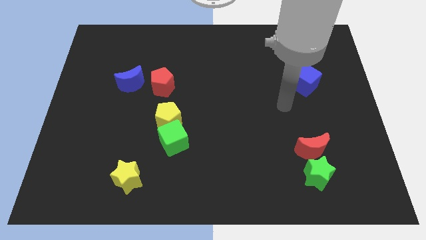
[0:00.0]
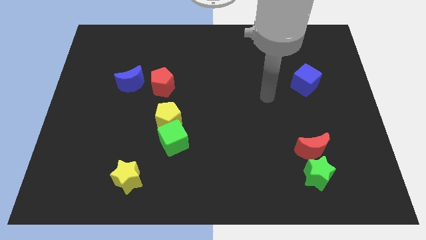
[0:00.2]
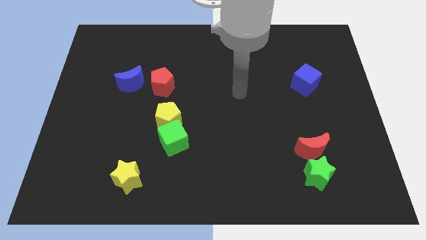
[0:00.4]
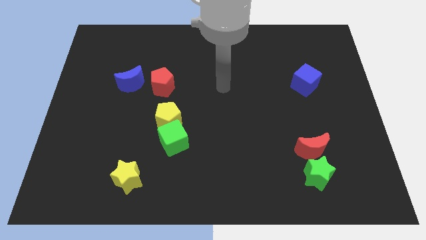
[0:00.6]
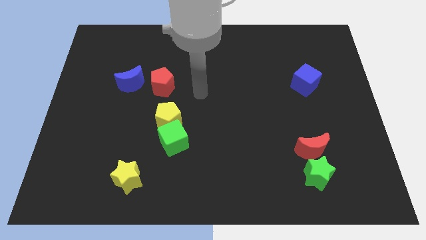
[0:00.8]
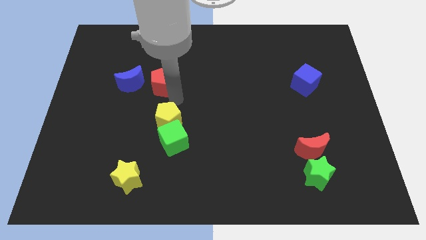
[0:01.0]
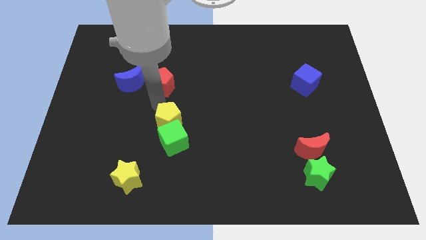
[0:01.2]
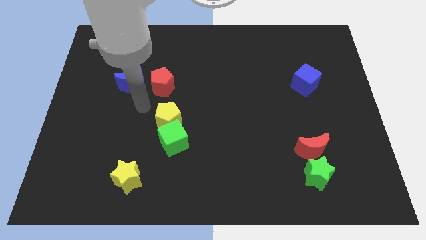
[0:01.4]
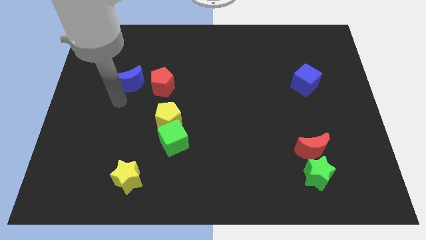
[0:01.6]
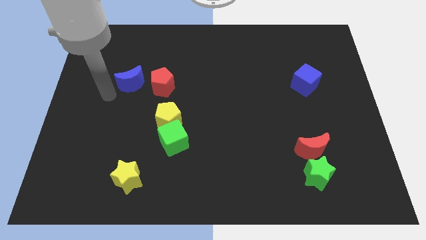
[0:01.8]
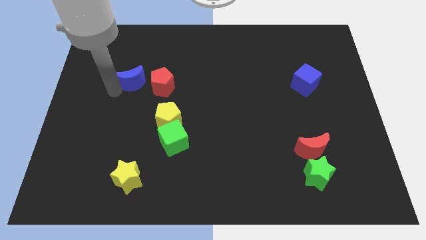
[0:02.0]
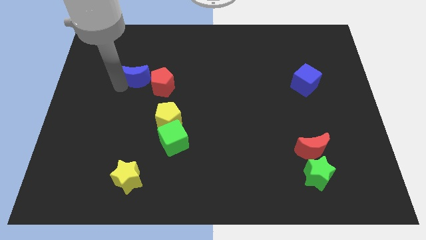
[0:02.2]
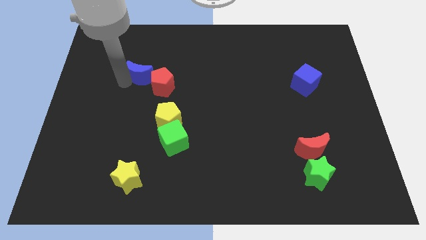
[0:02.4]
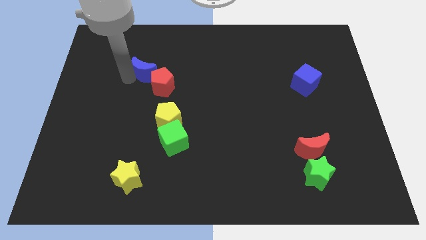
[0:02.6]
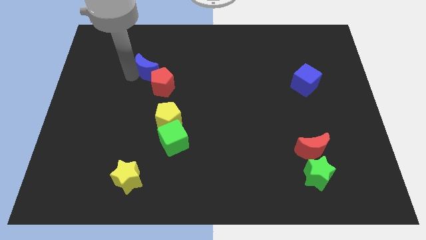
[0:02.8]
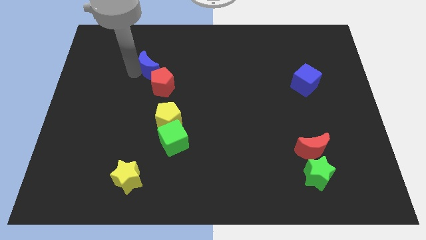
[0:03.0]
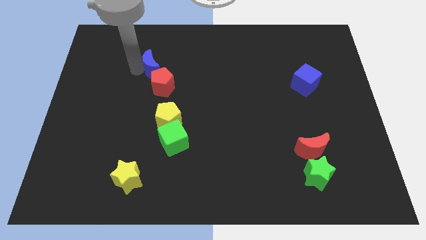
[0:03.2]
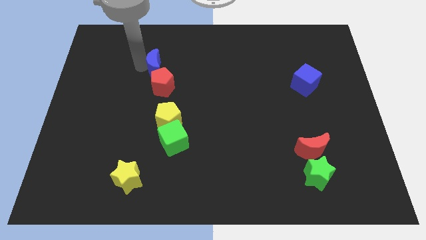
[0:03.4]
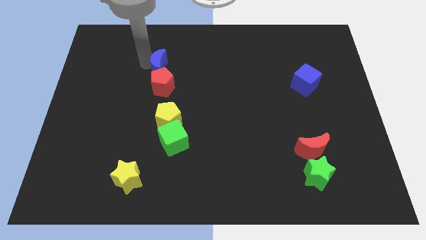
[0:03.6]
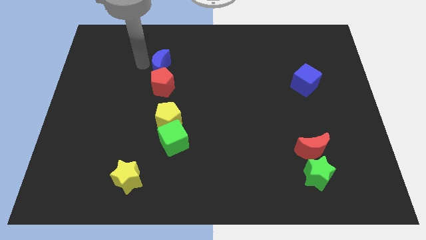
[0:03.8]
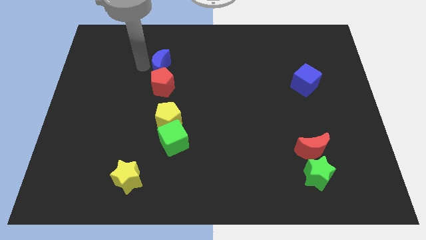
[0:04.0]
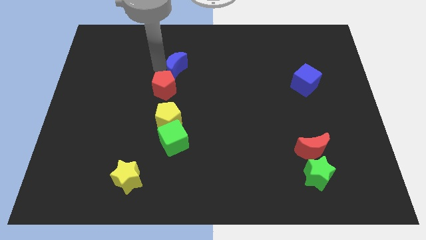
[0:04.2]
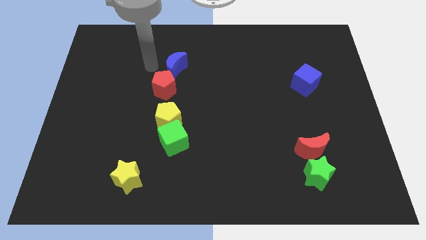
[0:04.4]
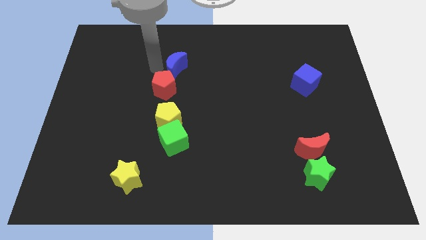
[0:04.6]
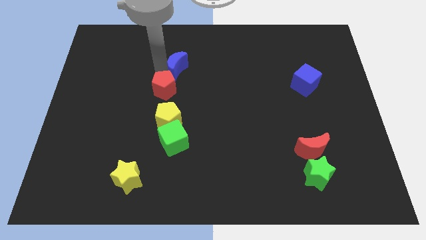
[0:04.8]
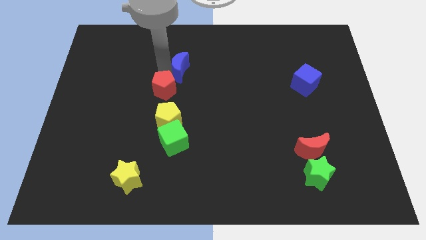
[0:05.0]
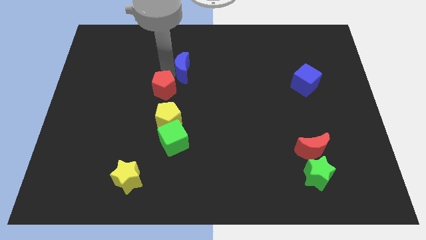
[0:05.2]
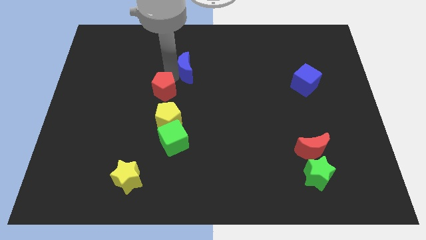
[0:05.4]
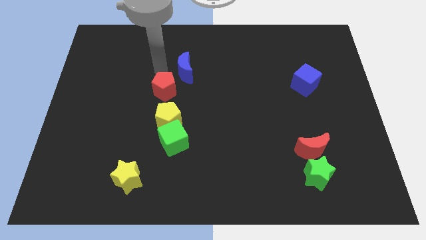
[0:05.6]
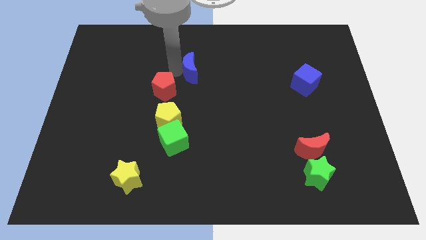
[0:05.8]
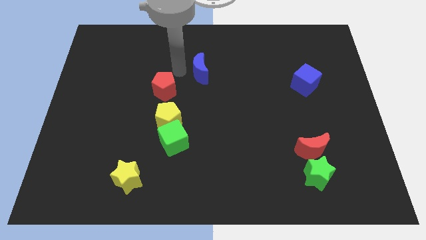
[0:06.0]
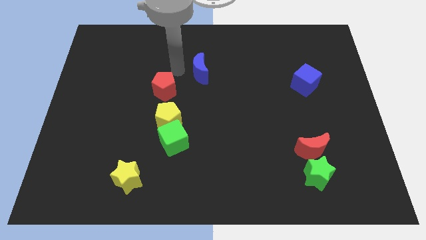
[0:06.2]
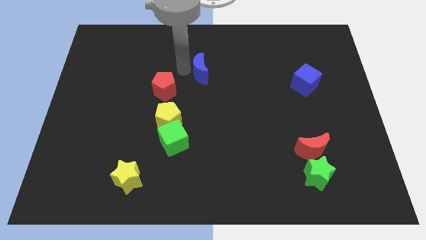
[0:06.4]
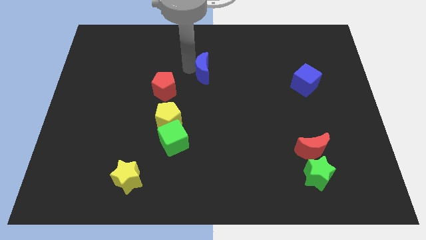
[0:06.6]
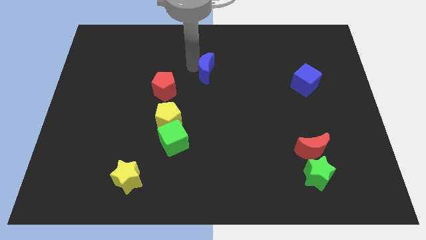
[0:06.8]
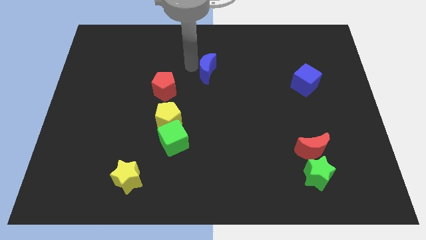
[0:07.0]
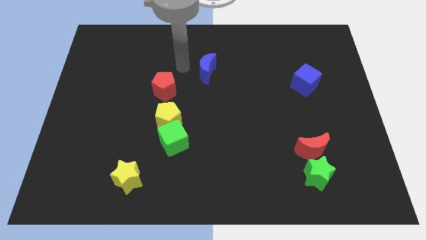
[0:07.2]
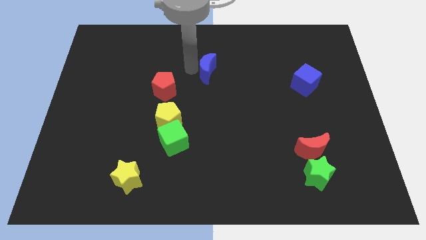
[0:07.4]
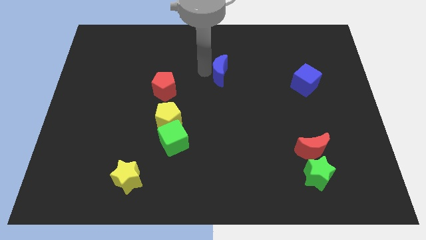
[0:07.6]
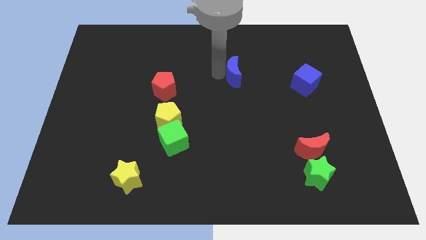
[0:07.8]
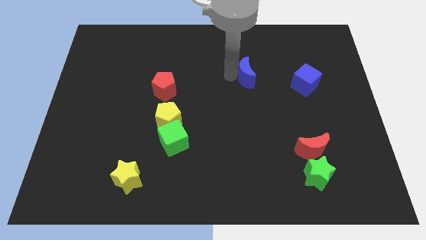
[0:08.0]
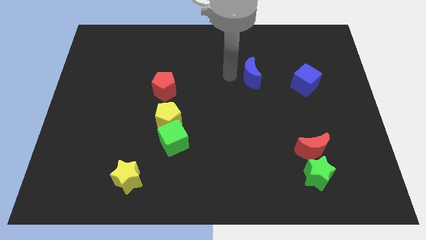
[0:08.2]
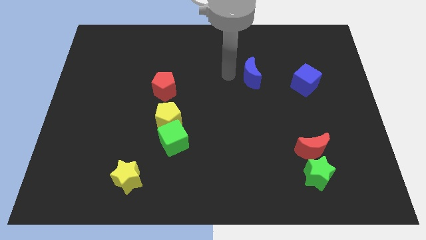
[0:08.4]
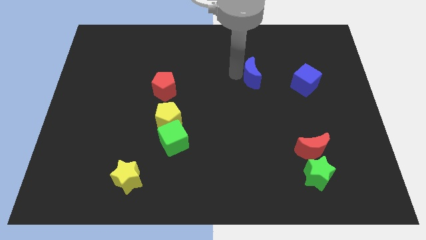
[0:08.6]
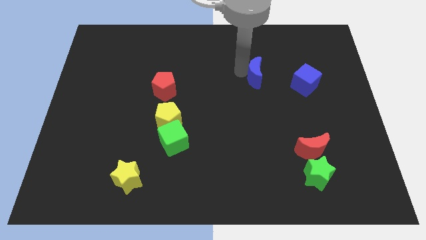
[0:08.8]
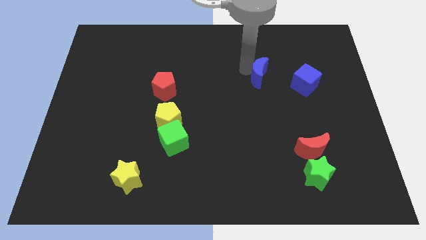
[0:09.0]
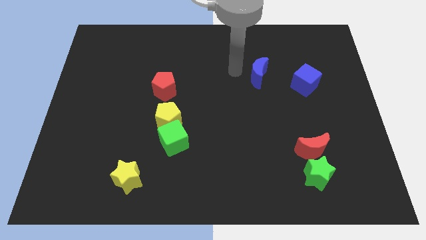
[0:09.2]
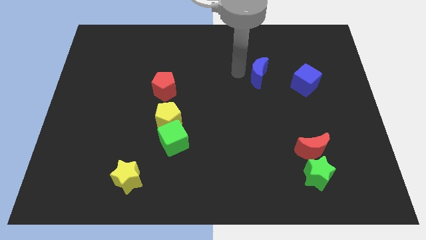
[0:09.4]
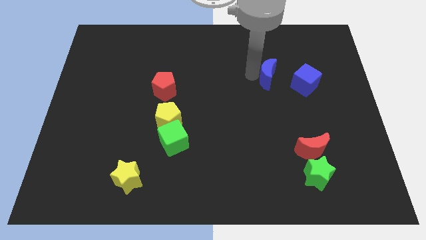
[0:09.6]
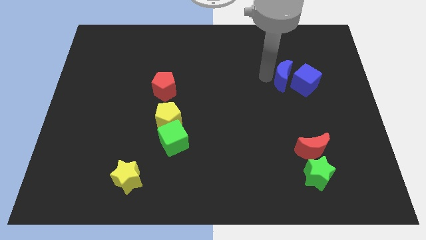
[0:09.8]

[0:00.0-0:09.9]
move the blue moon to the blue cube

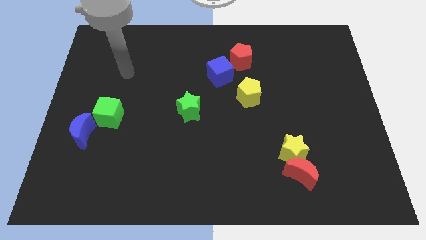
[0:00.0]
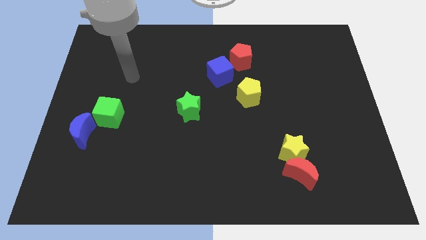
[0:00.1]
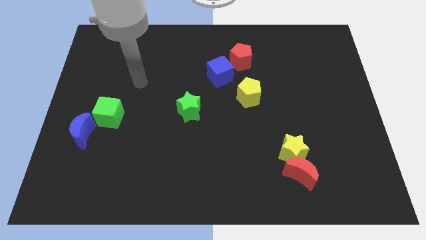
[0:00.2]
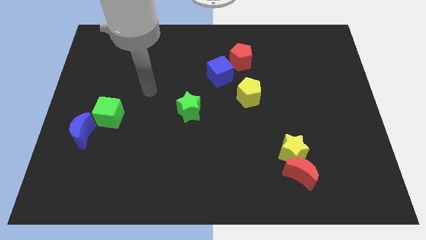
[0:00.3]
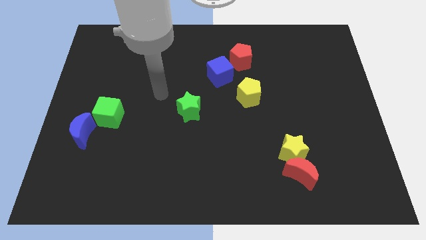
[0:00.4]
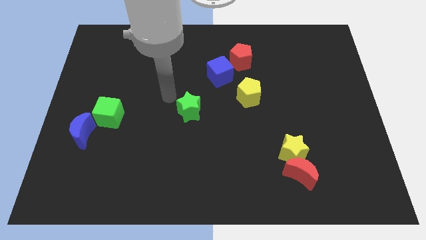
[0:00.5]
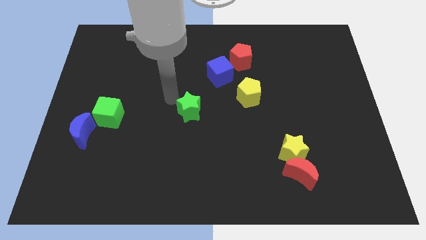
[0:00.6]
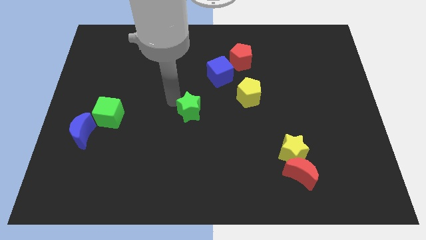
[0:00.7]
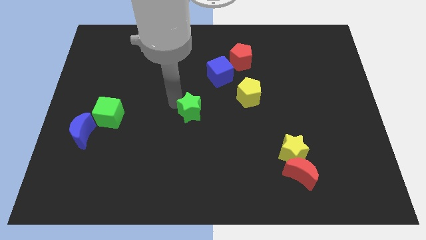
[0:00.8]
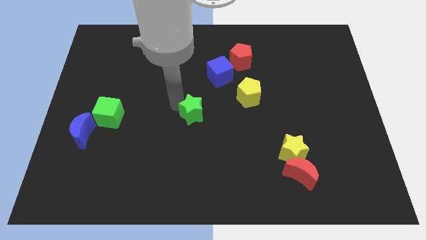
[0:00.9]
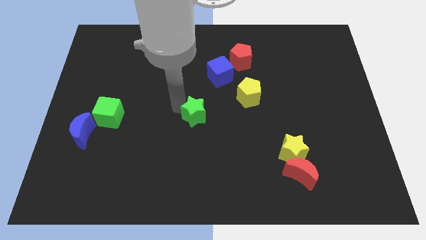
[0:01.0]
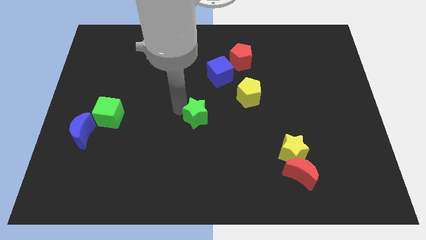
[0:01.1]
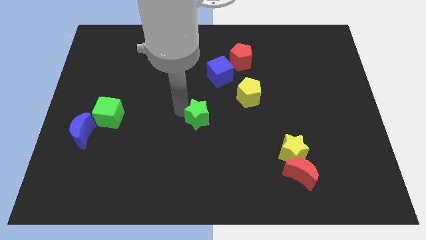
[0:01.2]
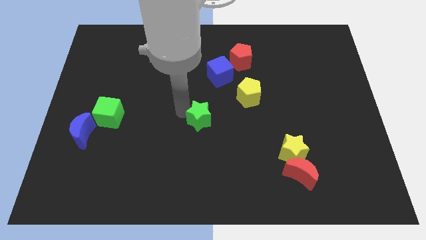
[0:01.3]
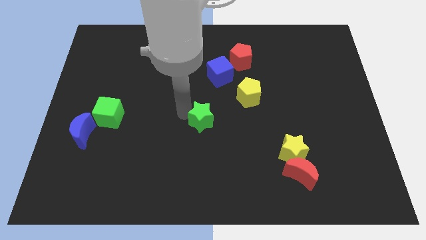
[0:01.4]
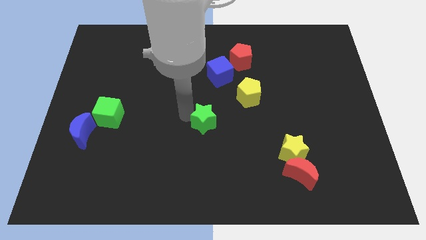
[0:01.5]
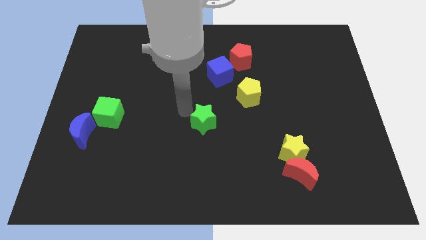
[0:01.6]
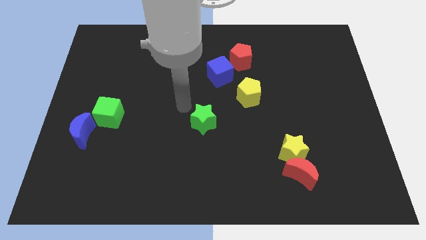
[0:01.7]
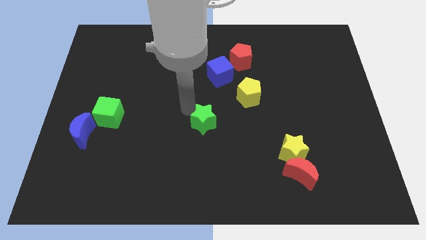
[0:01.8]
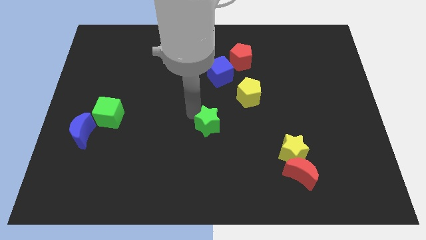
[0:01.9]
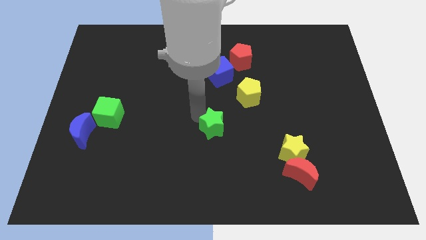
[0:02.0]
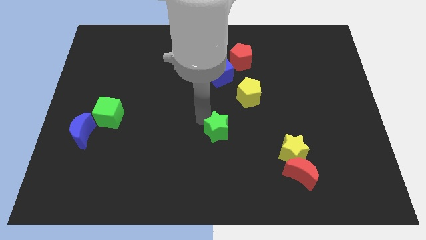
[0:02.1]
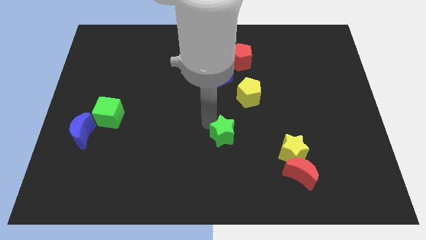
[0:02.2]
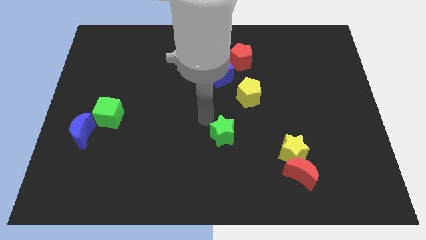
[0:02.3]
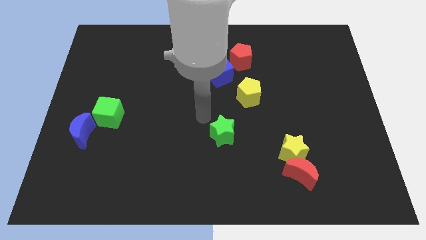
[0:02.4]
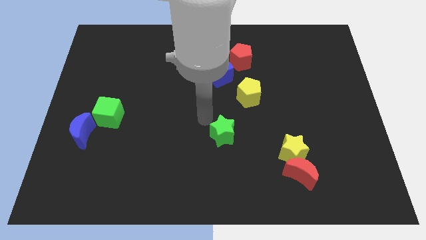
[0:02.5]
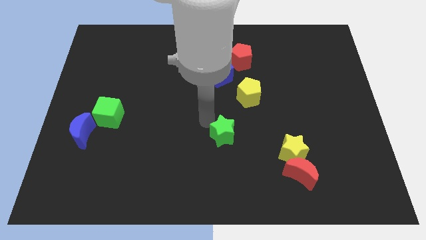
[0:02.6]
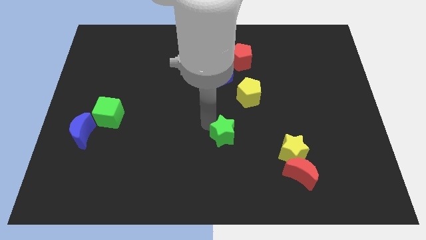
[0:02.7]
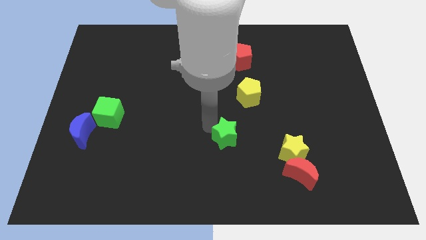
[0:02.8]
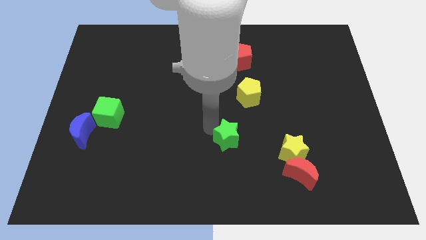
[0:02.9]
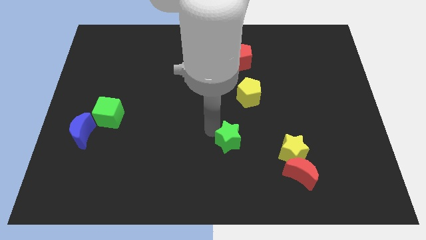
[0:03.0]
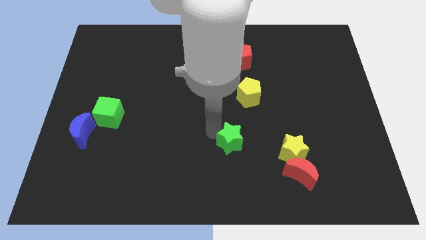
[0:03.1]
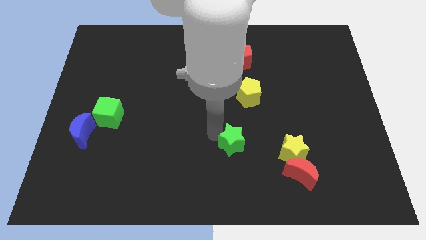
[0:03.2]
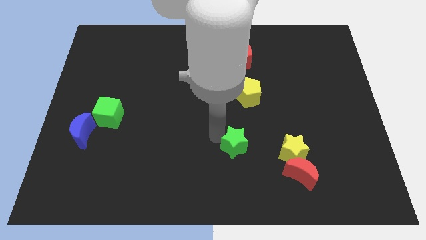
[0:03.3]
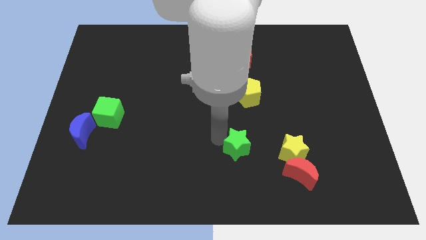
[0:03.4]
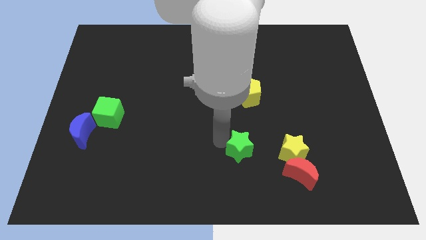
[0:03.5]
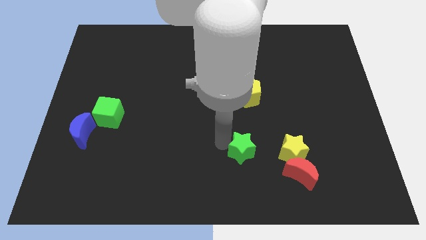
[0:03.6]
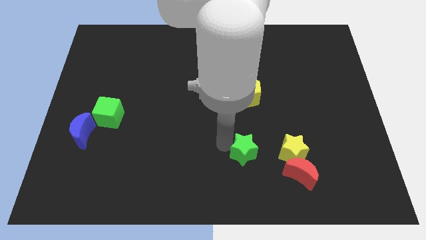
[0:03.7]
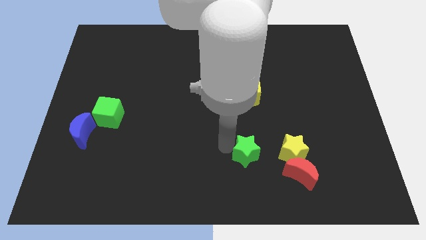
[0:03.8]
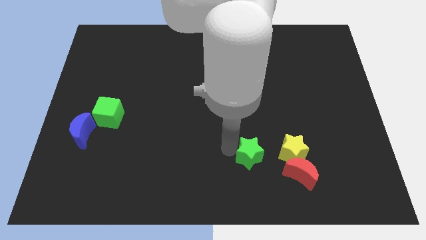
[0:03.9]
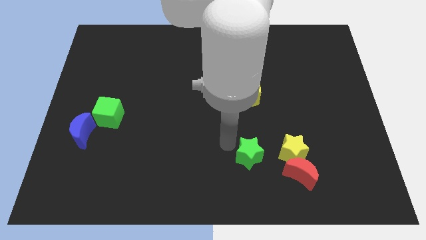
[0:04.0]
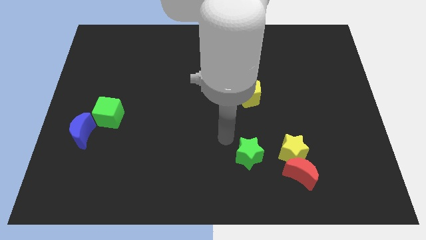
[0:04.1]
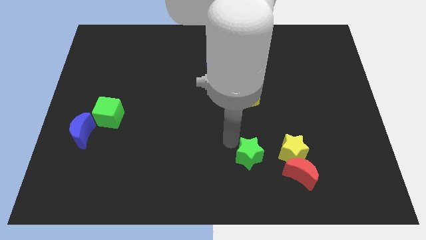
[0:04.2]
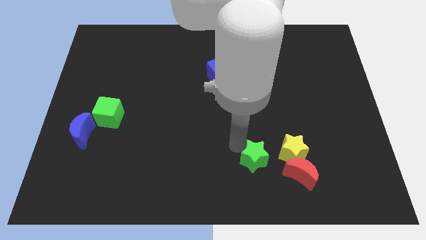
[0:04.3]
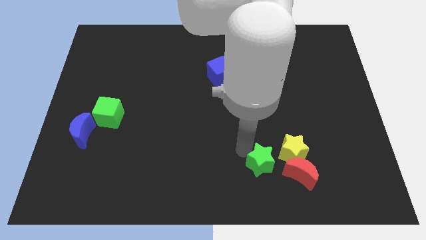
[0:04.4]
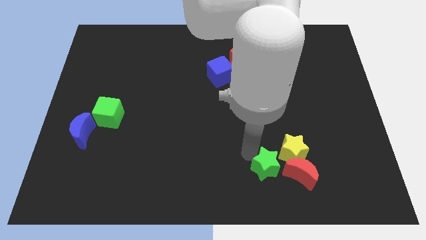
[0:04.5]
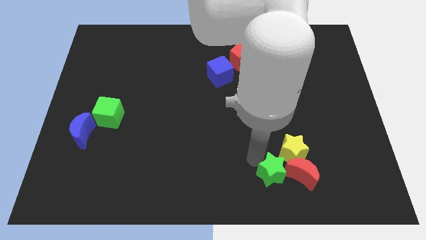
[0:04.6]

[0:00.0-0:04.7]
slide the green star next to the red moon
